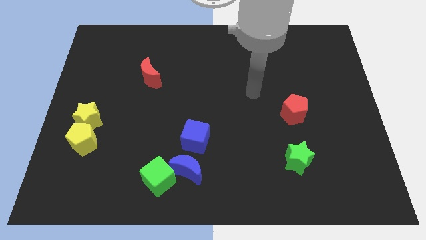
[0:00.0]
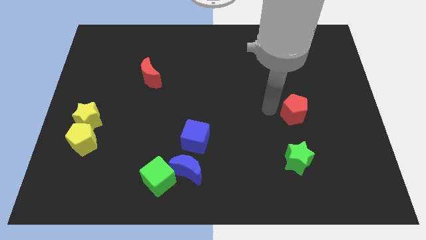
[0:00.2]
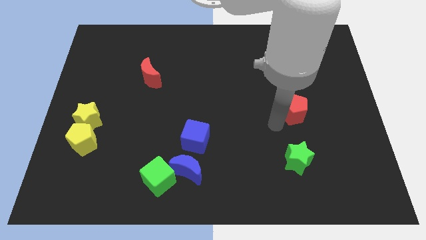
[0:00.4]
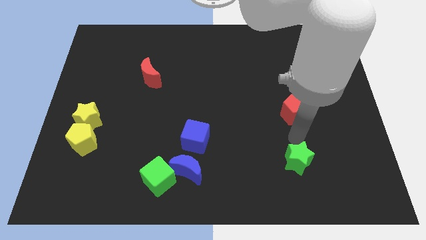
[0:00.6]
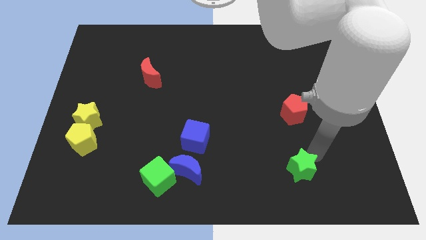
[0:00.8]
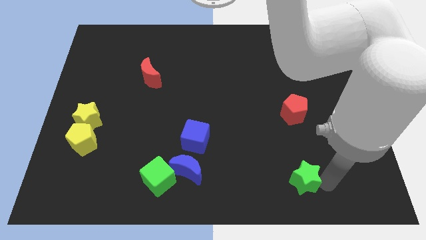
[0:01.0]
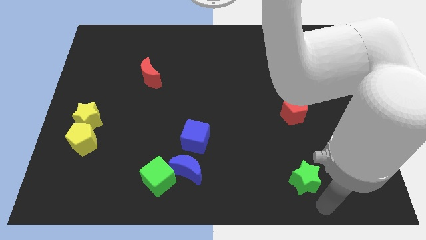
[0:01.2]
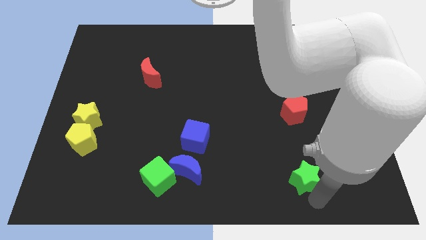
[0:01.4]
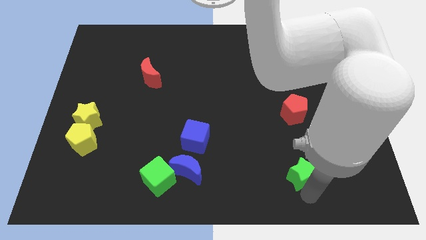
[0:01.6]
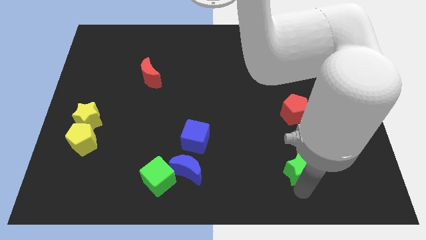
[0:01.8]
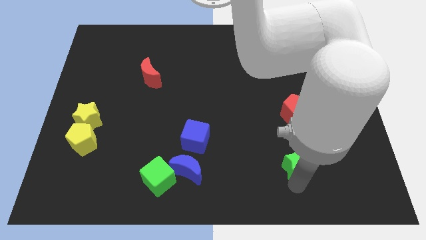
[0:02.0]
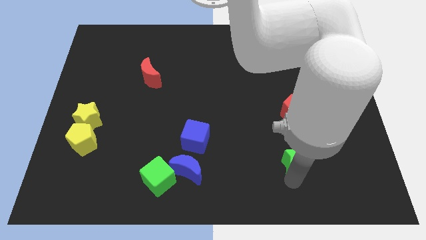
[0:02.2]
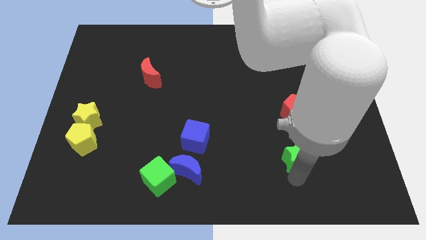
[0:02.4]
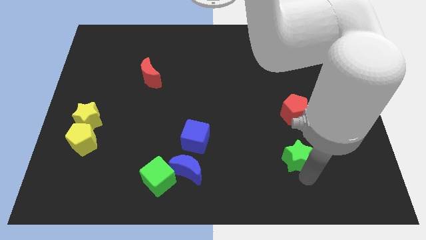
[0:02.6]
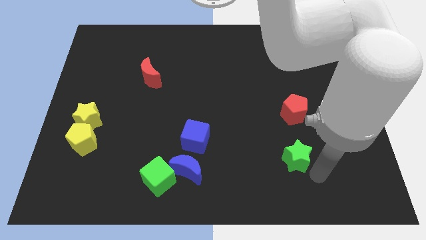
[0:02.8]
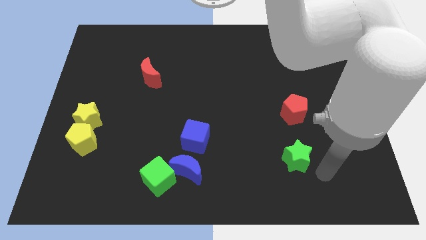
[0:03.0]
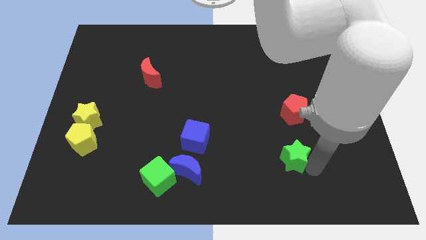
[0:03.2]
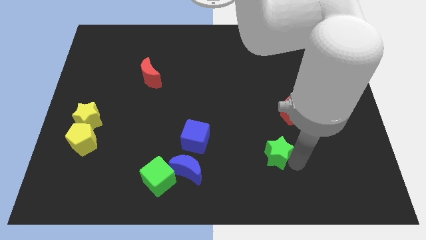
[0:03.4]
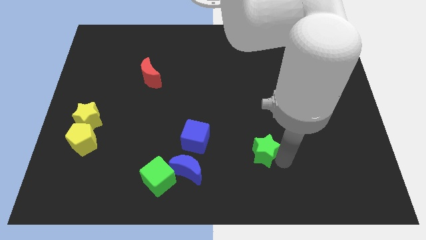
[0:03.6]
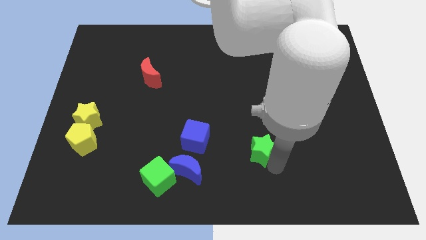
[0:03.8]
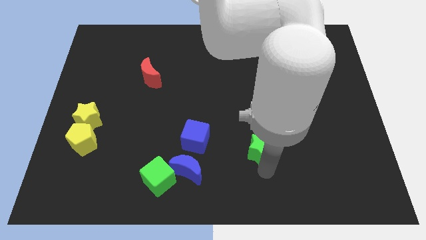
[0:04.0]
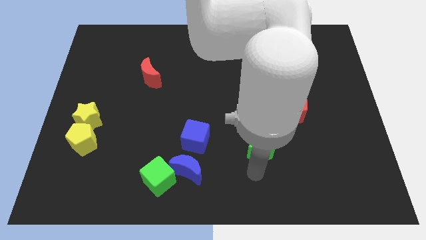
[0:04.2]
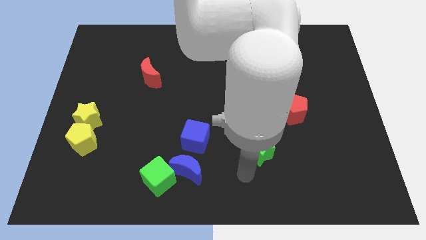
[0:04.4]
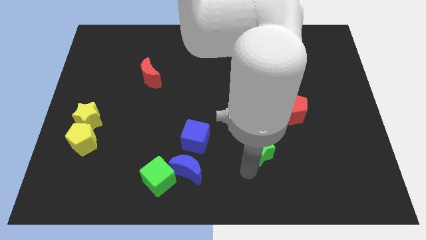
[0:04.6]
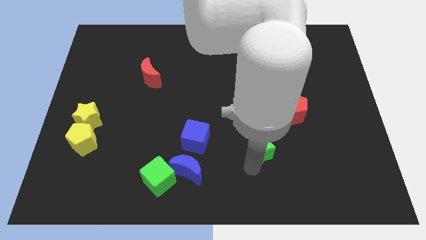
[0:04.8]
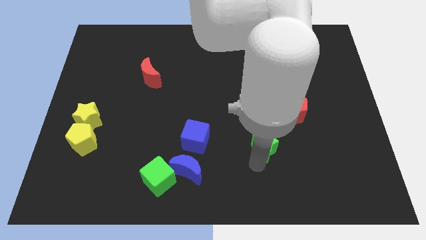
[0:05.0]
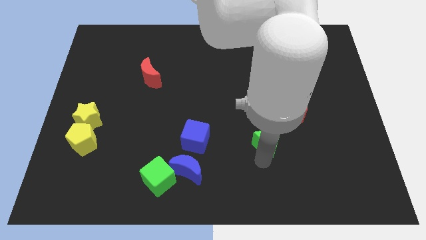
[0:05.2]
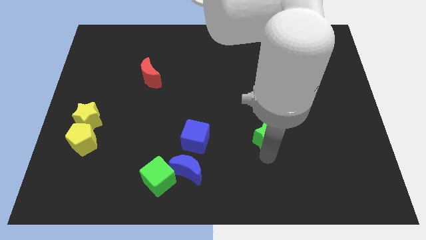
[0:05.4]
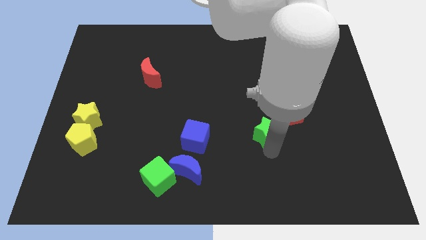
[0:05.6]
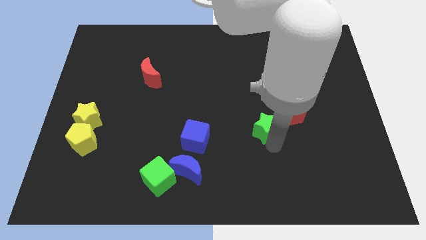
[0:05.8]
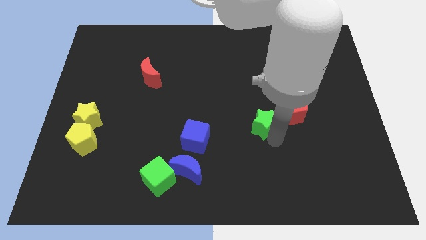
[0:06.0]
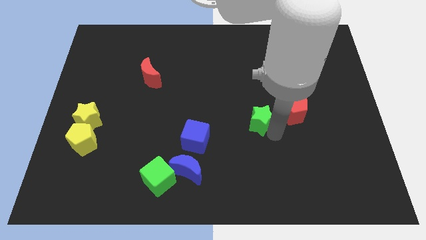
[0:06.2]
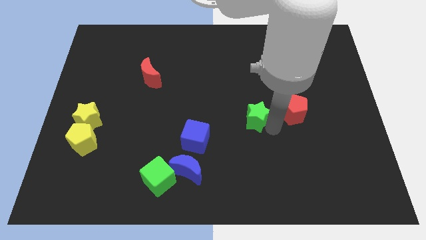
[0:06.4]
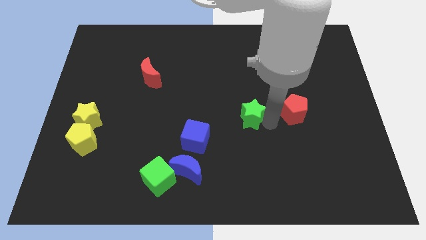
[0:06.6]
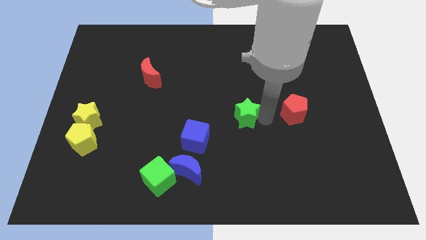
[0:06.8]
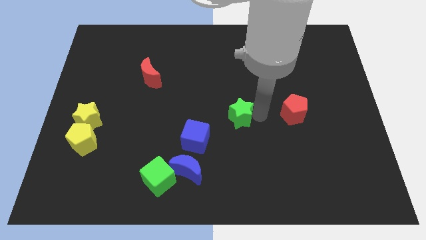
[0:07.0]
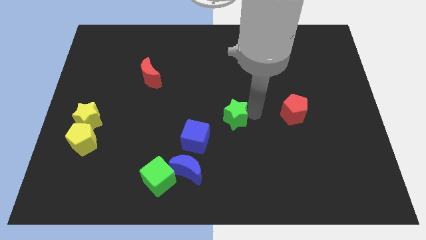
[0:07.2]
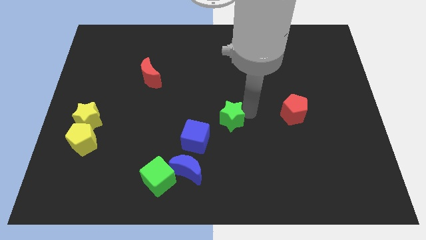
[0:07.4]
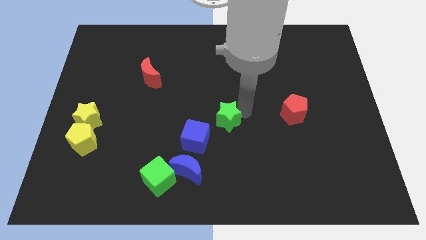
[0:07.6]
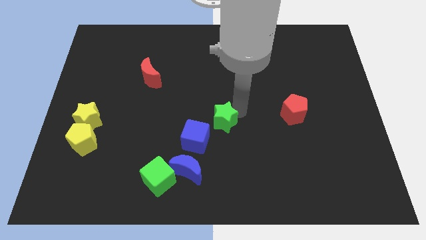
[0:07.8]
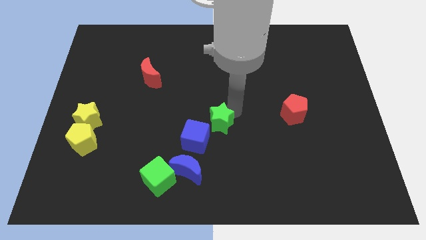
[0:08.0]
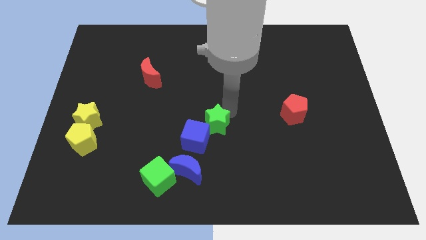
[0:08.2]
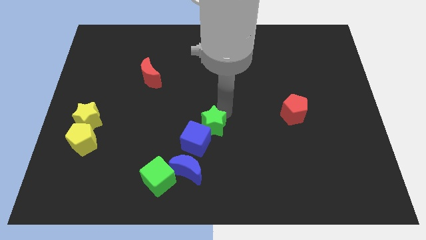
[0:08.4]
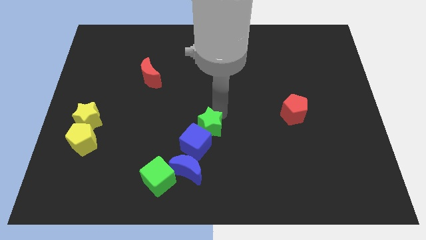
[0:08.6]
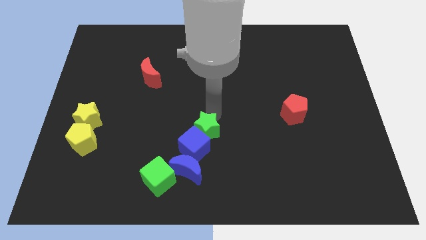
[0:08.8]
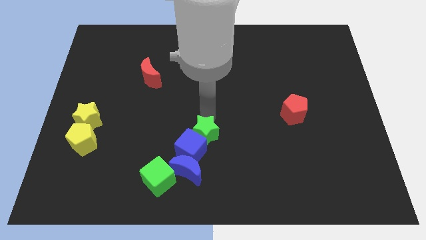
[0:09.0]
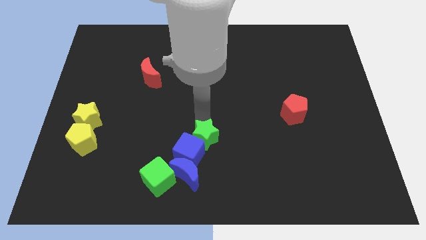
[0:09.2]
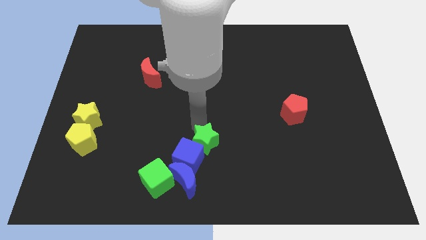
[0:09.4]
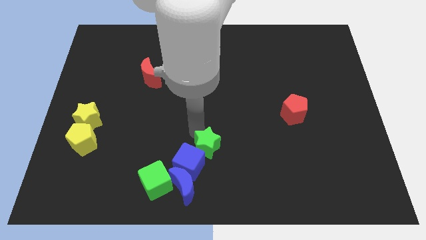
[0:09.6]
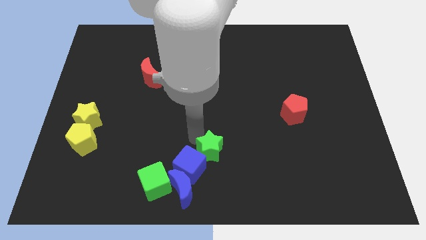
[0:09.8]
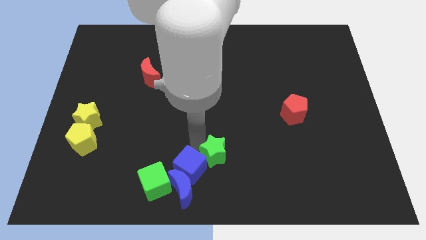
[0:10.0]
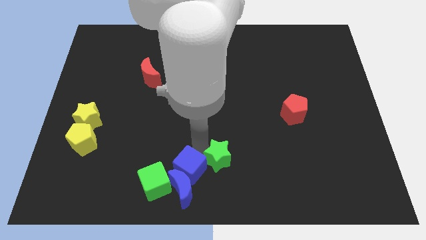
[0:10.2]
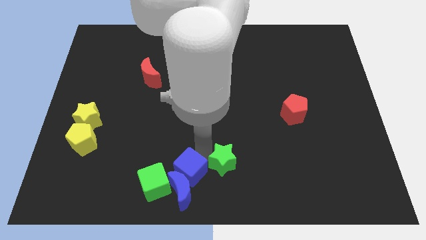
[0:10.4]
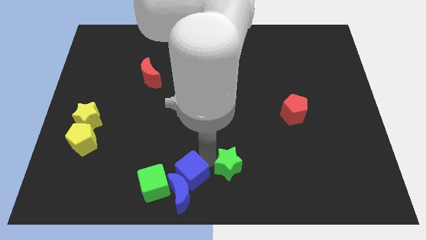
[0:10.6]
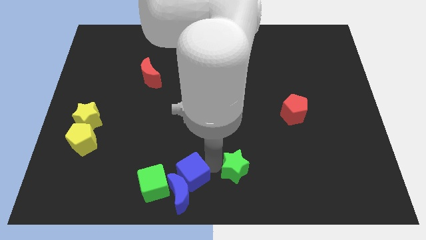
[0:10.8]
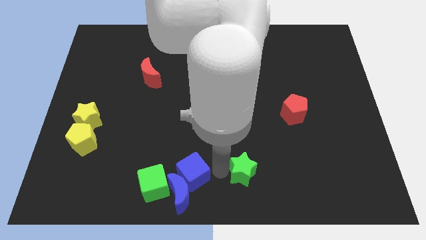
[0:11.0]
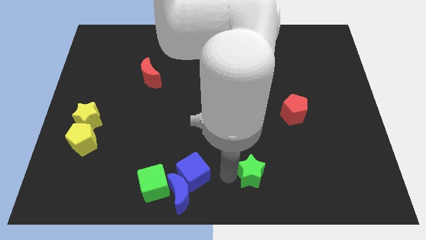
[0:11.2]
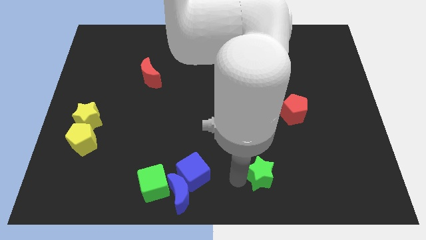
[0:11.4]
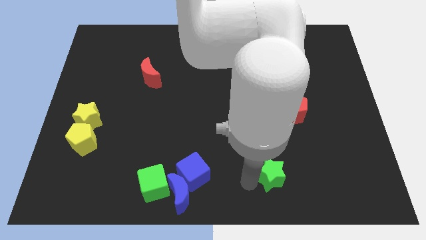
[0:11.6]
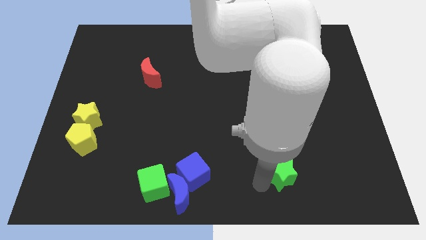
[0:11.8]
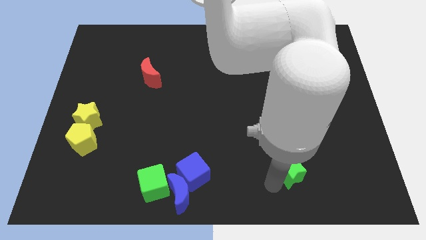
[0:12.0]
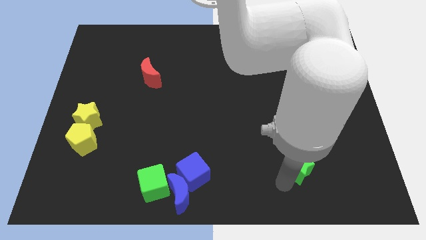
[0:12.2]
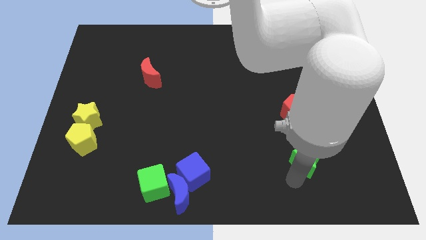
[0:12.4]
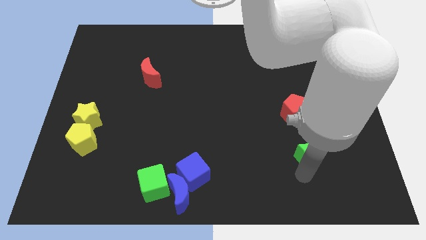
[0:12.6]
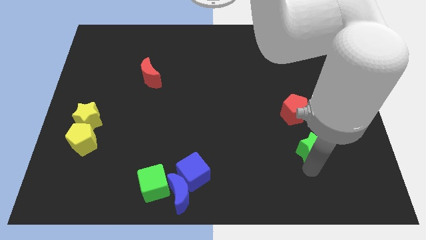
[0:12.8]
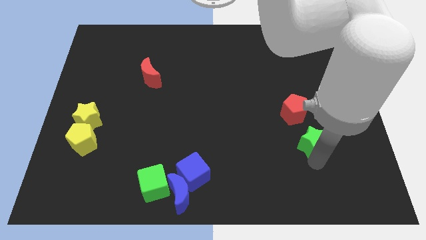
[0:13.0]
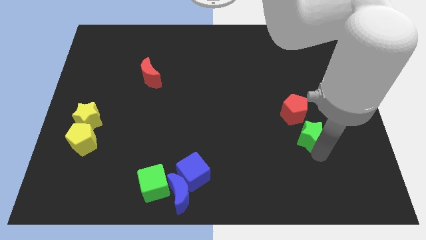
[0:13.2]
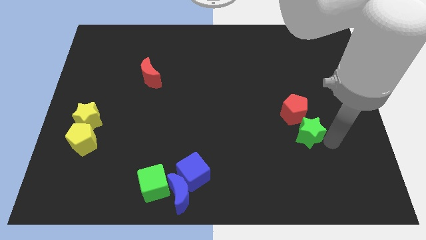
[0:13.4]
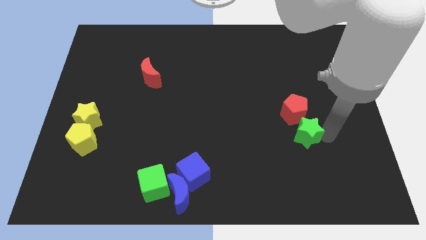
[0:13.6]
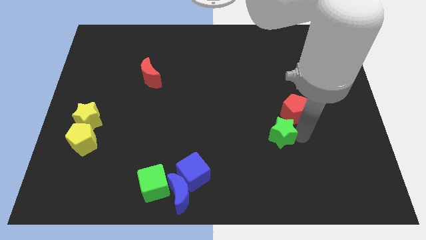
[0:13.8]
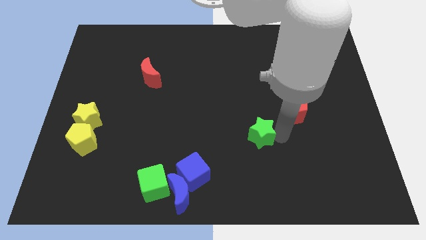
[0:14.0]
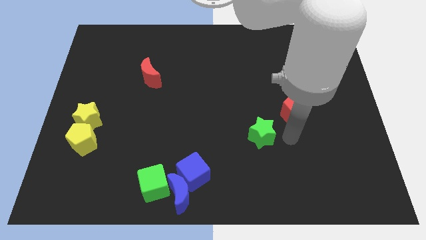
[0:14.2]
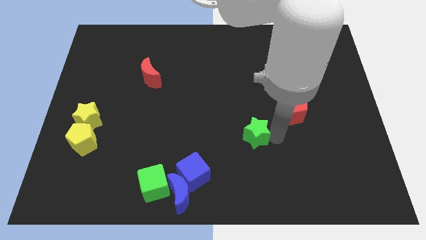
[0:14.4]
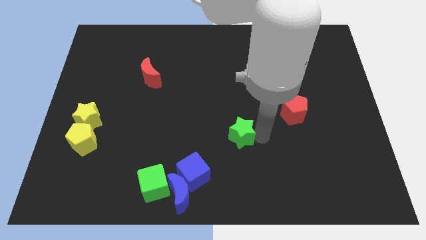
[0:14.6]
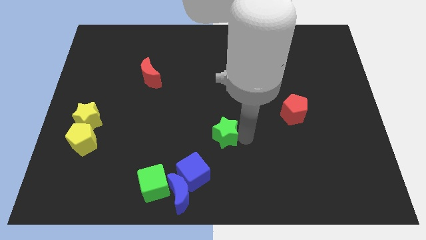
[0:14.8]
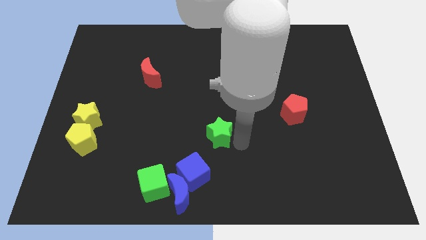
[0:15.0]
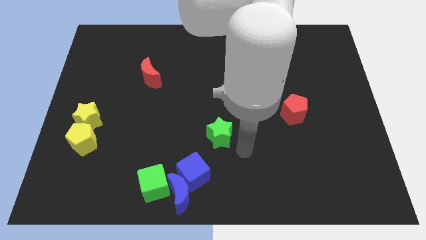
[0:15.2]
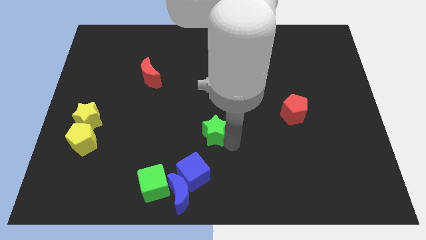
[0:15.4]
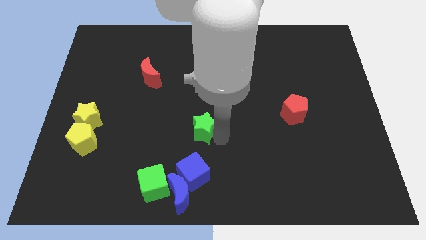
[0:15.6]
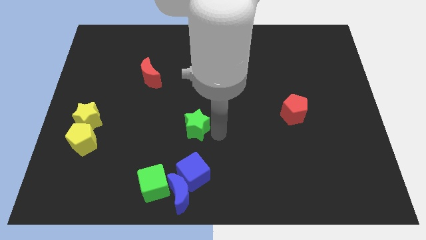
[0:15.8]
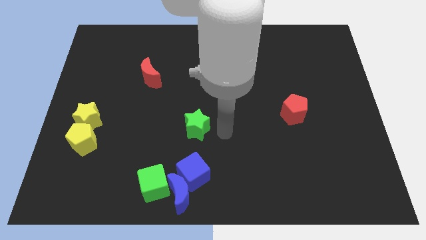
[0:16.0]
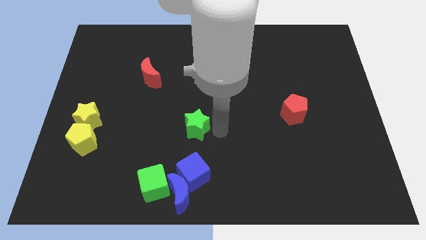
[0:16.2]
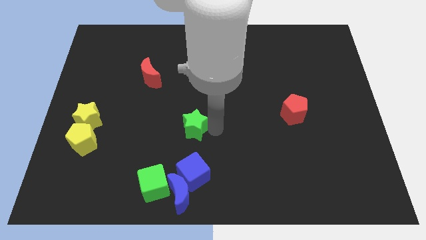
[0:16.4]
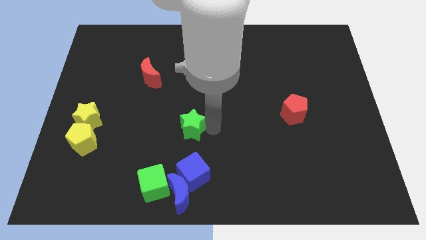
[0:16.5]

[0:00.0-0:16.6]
move the green star left
